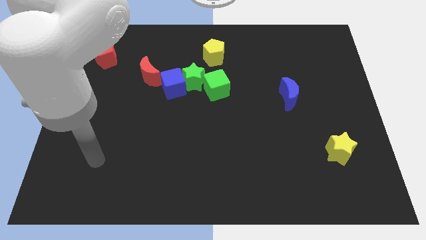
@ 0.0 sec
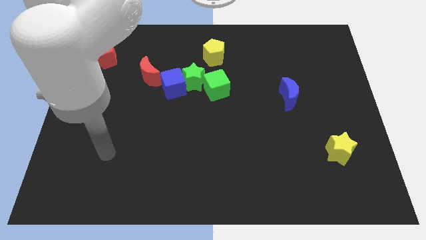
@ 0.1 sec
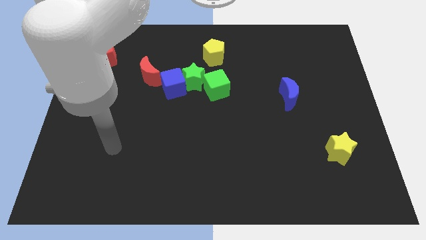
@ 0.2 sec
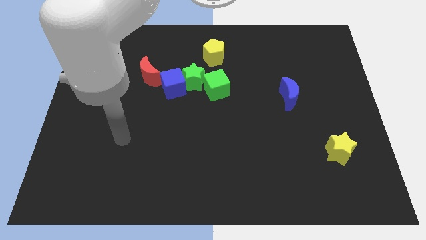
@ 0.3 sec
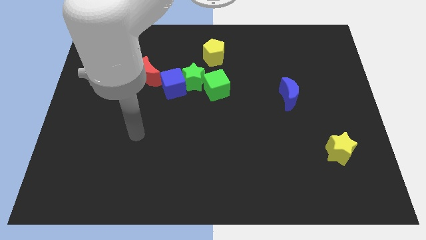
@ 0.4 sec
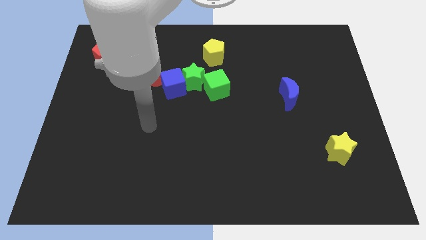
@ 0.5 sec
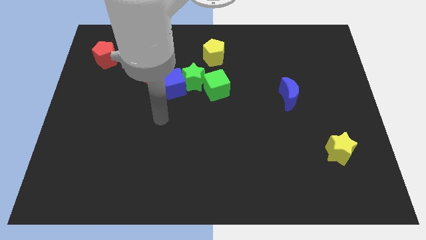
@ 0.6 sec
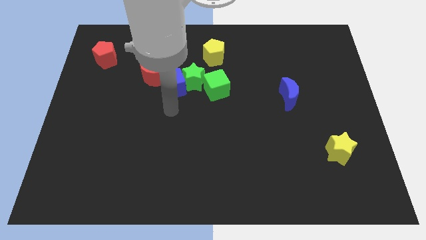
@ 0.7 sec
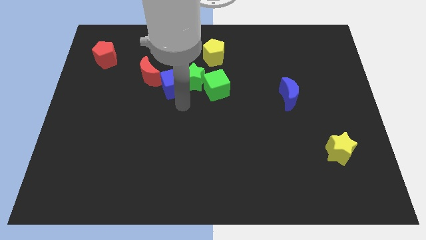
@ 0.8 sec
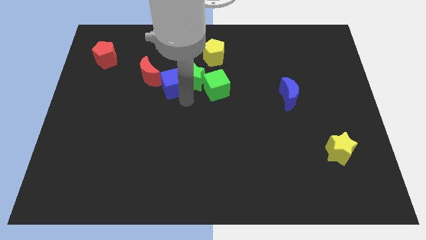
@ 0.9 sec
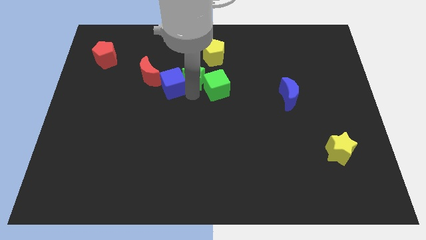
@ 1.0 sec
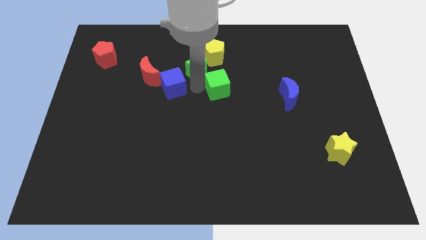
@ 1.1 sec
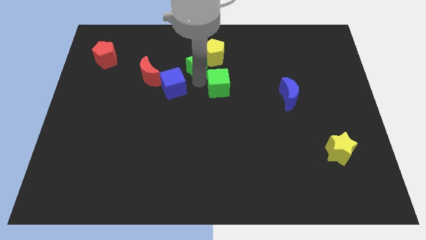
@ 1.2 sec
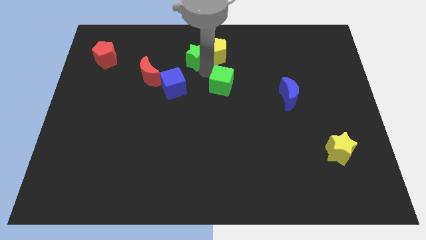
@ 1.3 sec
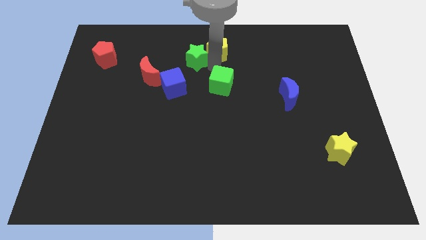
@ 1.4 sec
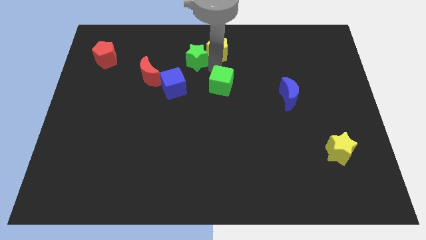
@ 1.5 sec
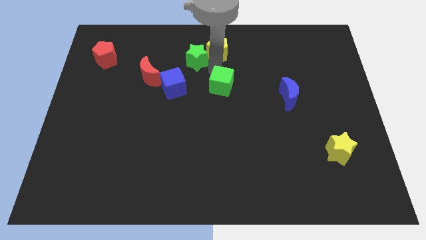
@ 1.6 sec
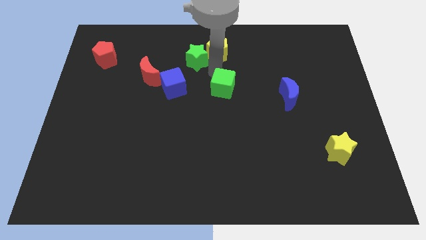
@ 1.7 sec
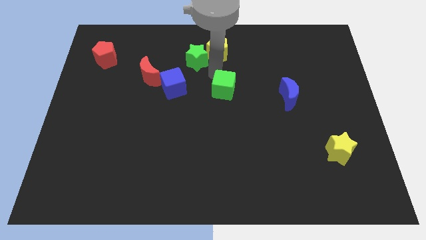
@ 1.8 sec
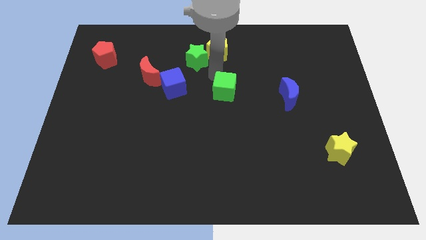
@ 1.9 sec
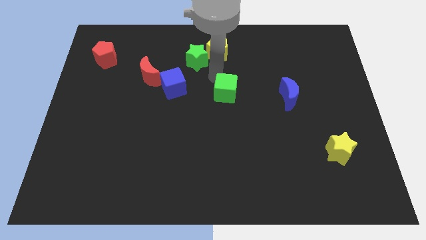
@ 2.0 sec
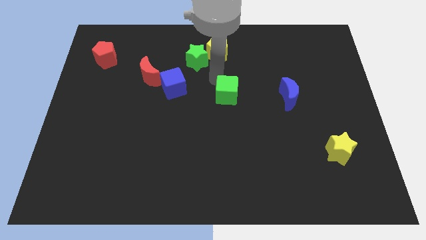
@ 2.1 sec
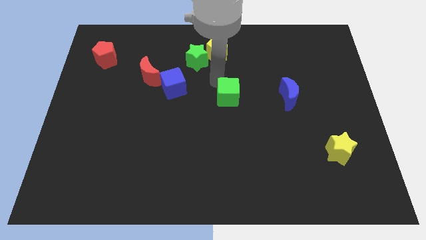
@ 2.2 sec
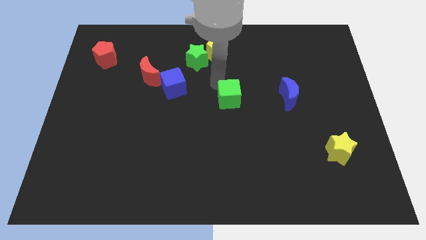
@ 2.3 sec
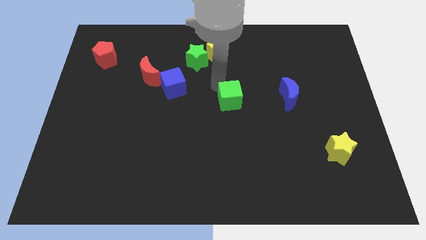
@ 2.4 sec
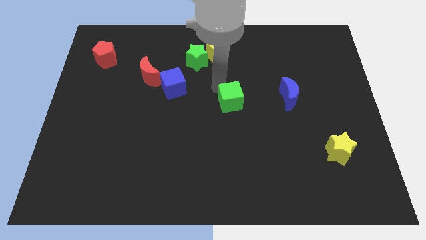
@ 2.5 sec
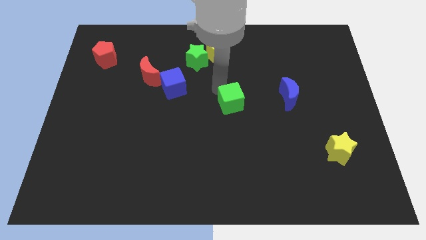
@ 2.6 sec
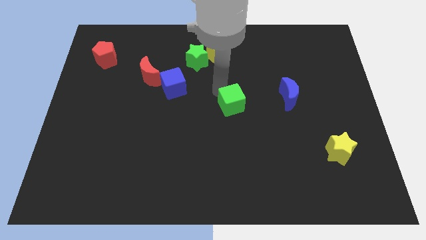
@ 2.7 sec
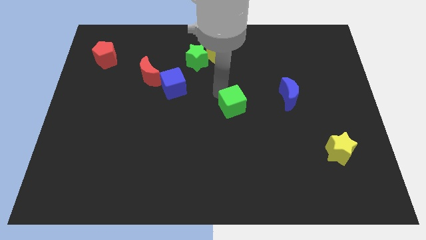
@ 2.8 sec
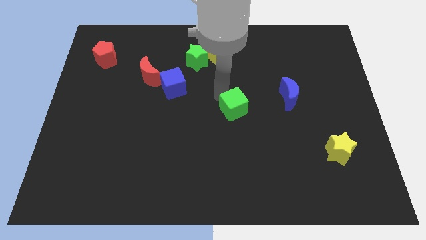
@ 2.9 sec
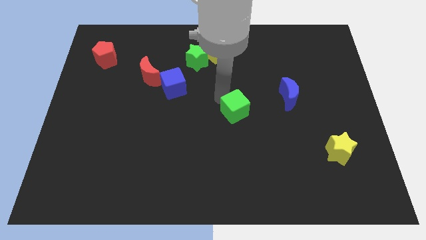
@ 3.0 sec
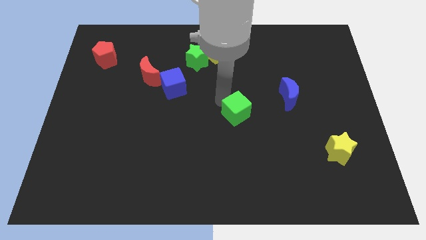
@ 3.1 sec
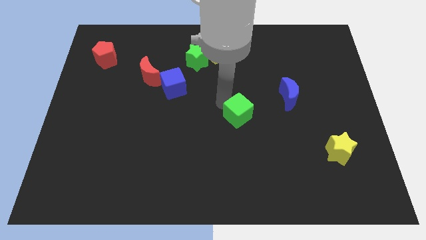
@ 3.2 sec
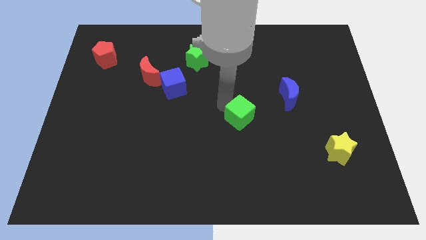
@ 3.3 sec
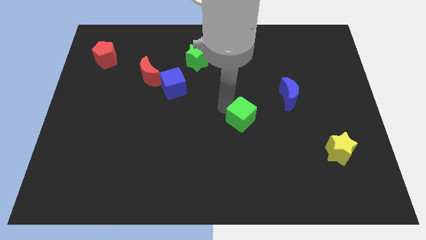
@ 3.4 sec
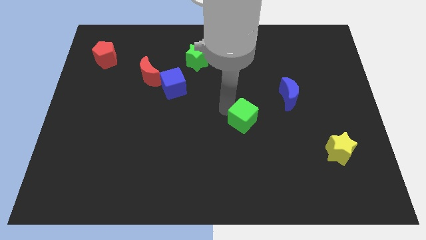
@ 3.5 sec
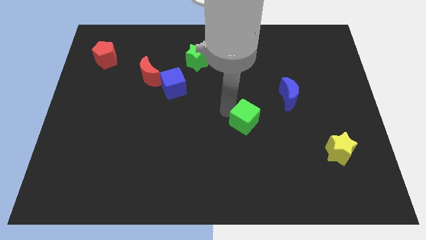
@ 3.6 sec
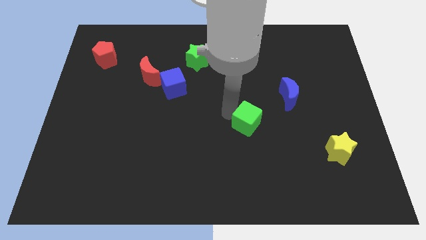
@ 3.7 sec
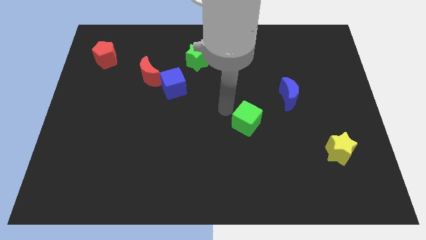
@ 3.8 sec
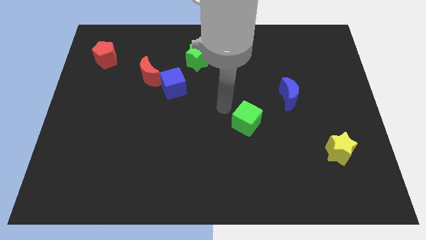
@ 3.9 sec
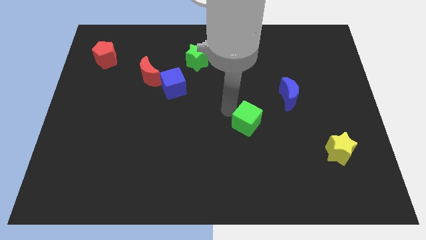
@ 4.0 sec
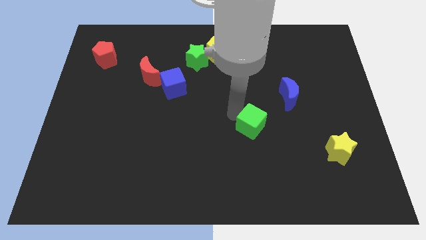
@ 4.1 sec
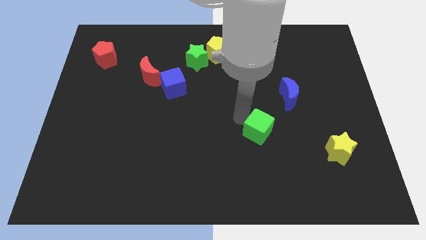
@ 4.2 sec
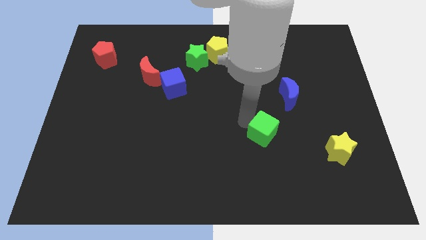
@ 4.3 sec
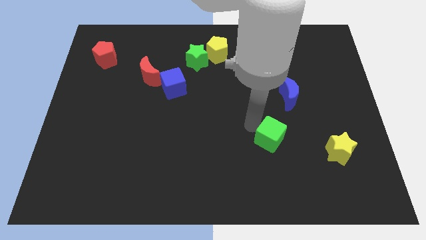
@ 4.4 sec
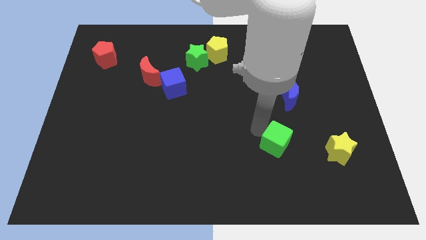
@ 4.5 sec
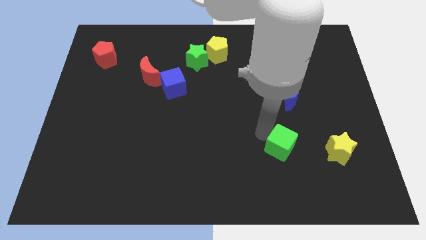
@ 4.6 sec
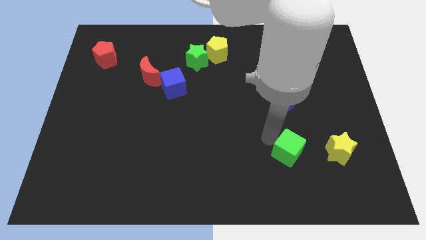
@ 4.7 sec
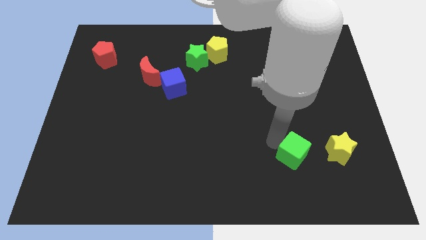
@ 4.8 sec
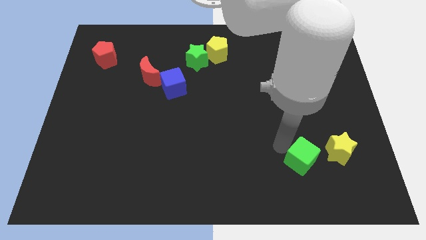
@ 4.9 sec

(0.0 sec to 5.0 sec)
put the green cube to the bottom left of the yellow star

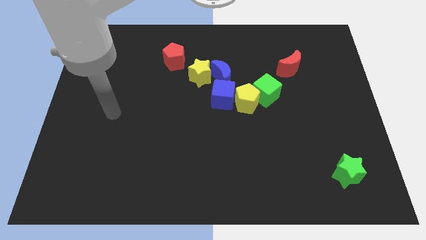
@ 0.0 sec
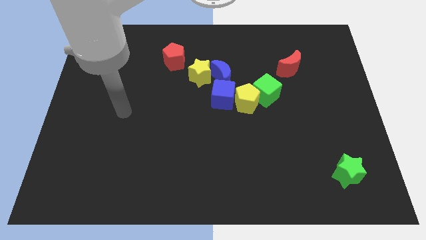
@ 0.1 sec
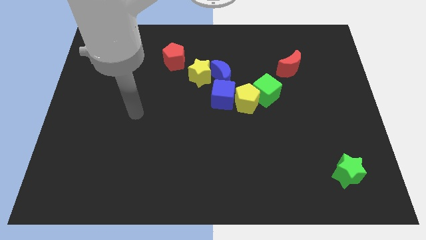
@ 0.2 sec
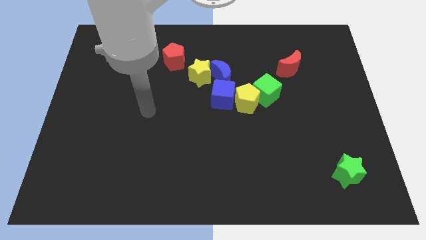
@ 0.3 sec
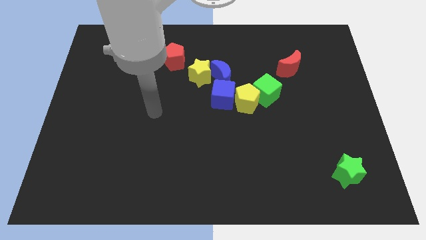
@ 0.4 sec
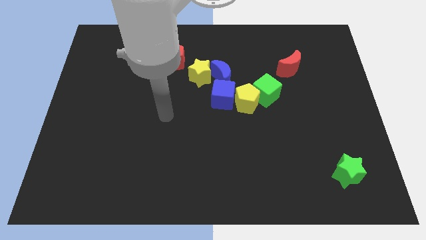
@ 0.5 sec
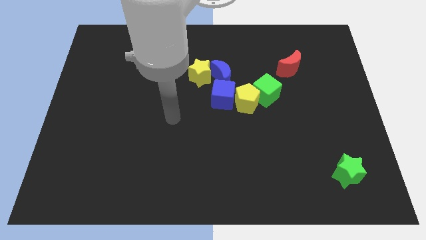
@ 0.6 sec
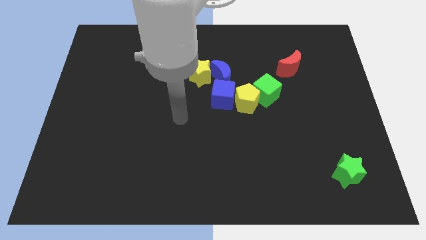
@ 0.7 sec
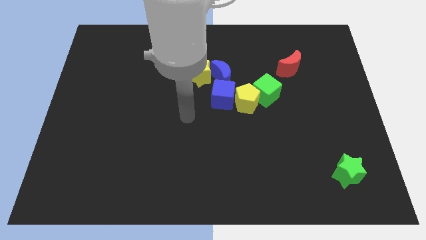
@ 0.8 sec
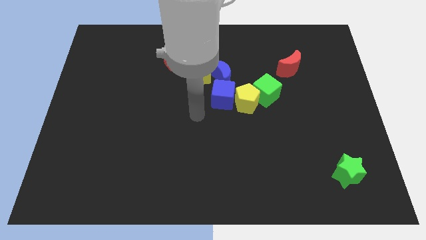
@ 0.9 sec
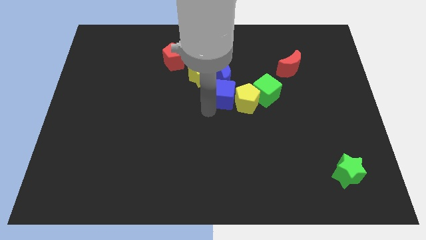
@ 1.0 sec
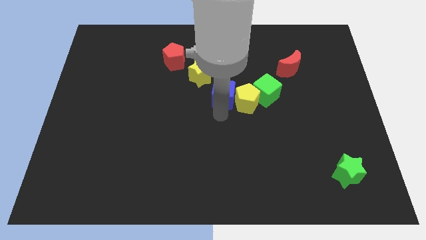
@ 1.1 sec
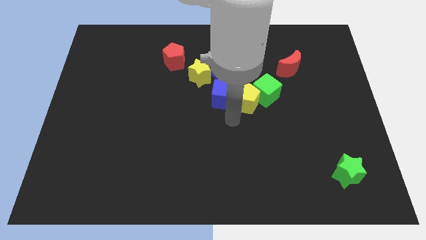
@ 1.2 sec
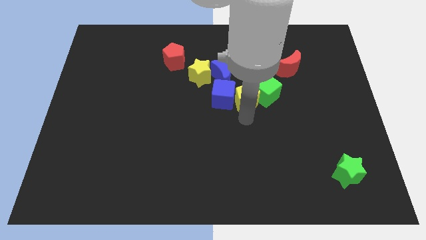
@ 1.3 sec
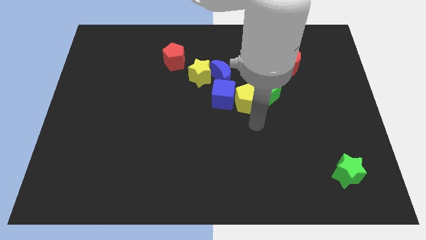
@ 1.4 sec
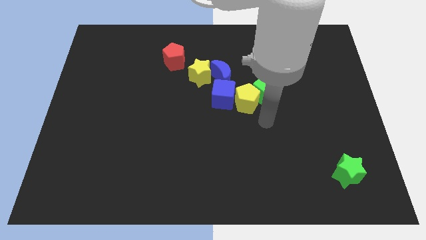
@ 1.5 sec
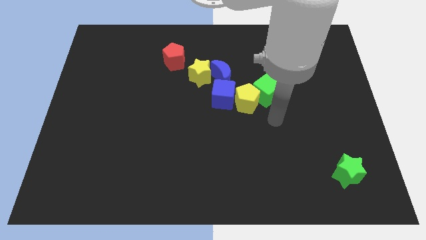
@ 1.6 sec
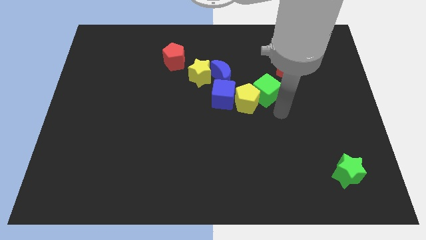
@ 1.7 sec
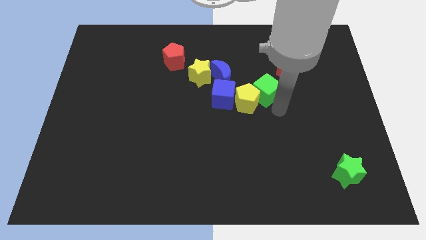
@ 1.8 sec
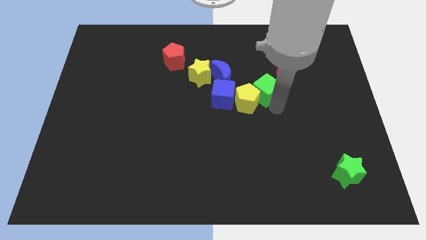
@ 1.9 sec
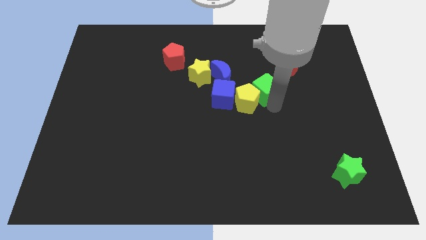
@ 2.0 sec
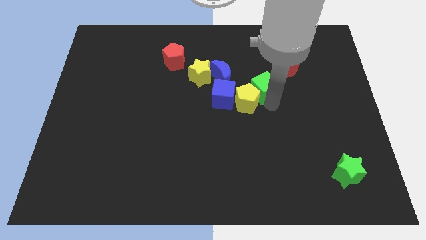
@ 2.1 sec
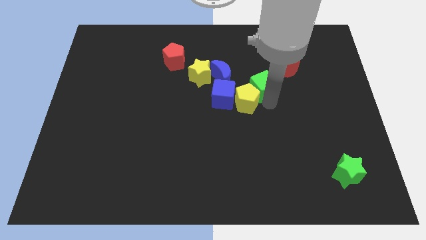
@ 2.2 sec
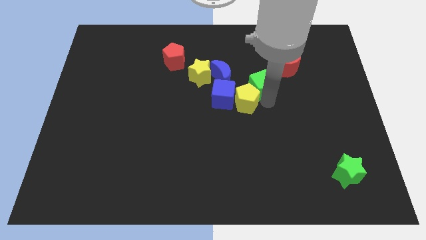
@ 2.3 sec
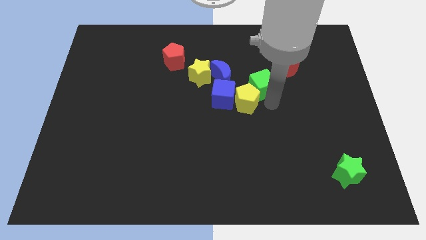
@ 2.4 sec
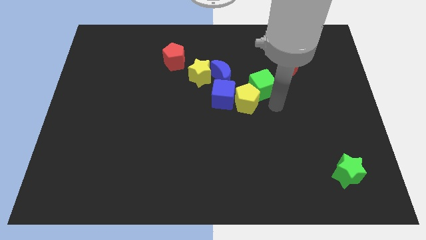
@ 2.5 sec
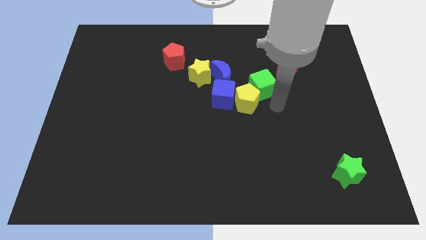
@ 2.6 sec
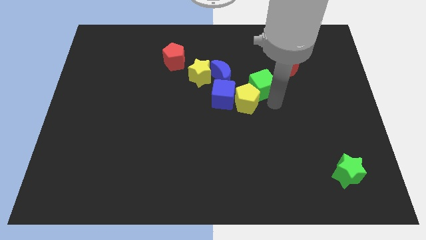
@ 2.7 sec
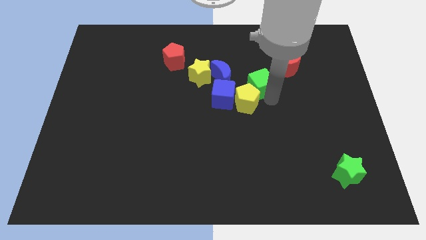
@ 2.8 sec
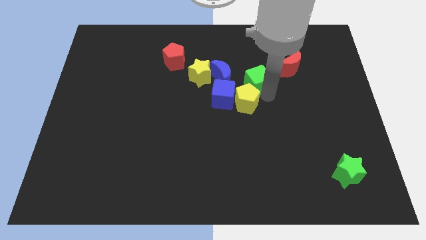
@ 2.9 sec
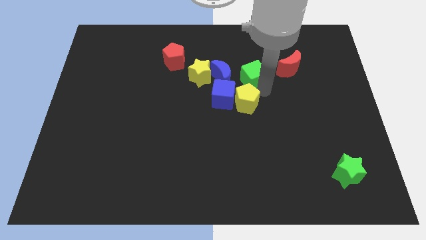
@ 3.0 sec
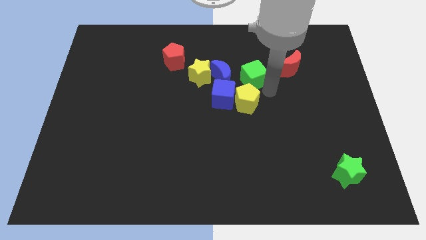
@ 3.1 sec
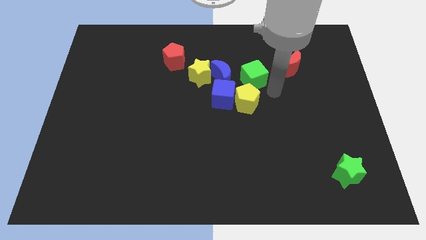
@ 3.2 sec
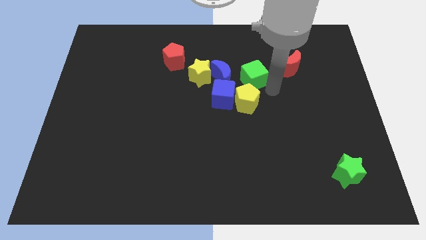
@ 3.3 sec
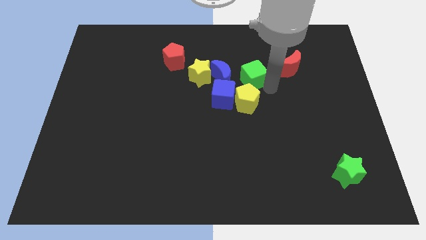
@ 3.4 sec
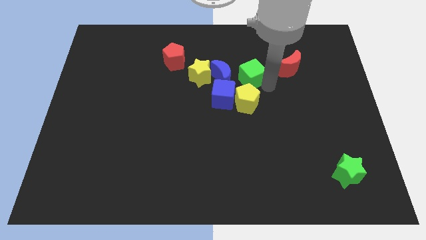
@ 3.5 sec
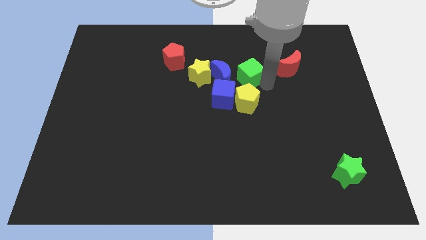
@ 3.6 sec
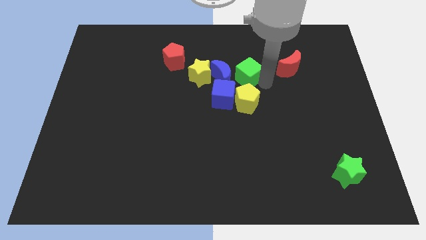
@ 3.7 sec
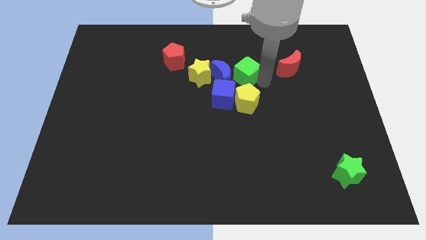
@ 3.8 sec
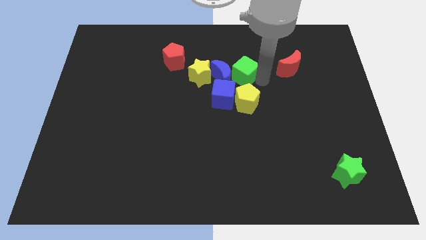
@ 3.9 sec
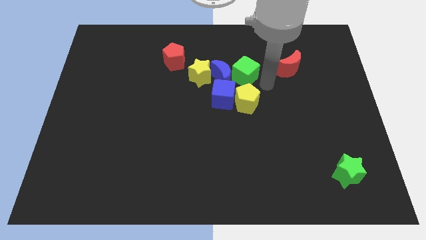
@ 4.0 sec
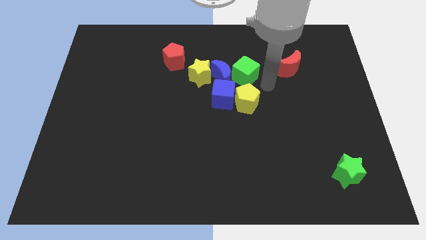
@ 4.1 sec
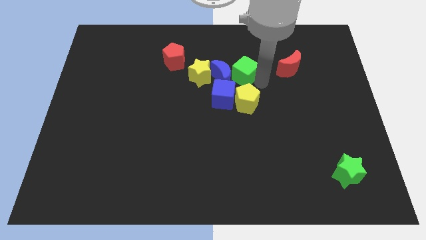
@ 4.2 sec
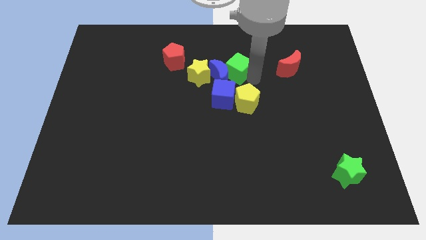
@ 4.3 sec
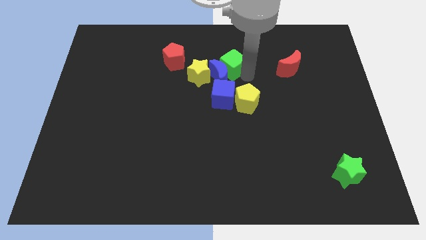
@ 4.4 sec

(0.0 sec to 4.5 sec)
put the green cube right of the red pentagon
